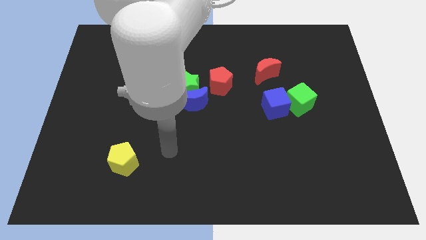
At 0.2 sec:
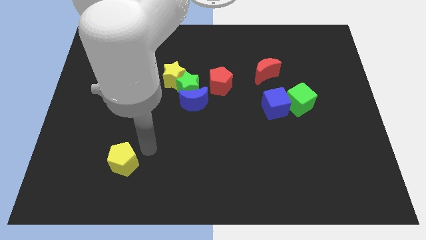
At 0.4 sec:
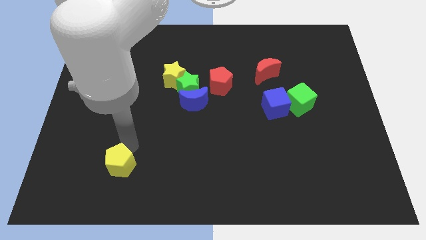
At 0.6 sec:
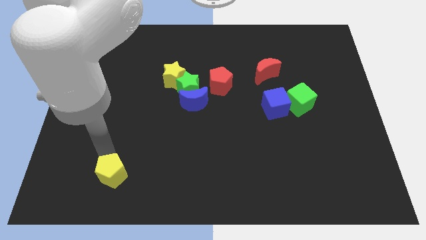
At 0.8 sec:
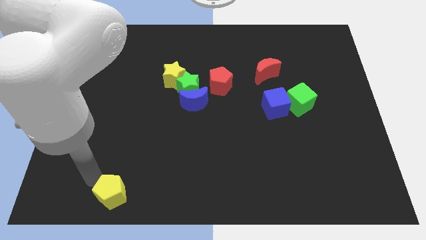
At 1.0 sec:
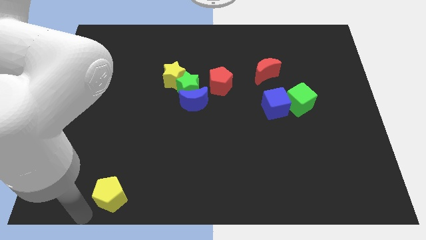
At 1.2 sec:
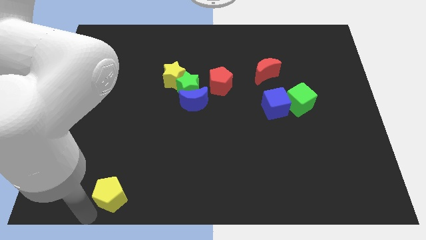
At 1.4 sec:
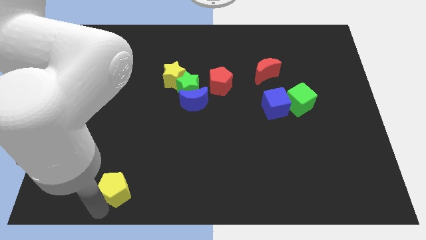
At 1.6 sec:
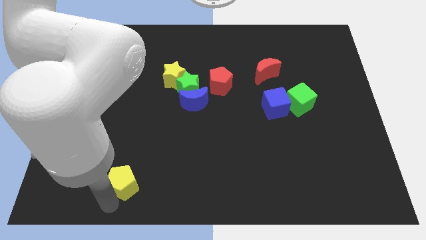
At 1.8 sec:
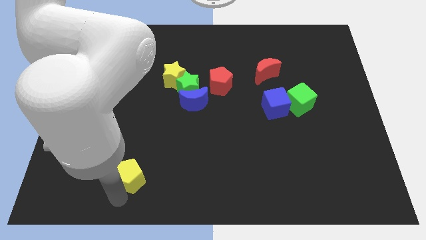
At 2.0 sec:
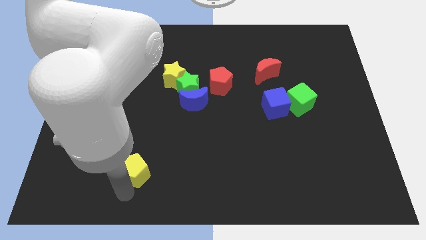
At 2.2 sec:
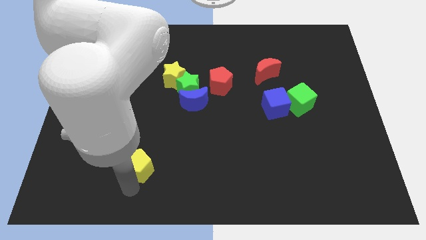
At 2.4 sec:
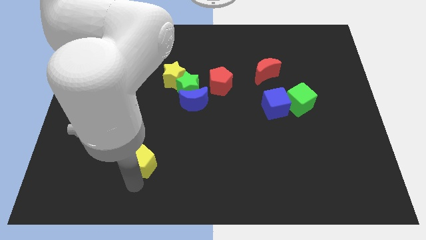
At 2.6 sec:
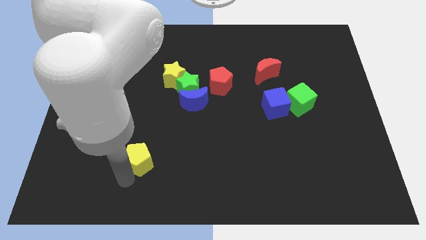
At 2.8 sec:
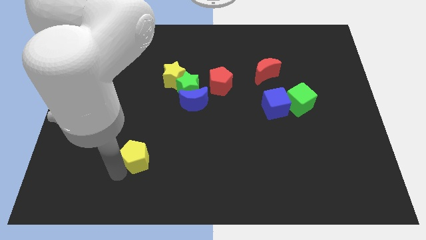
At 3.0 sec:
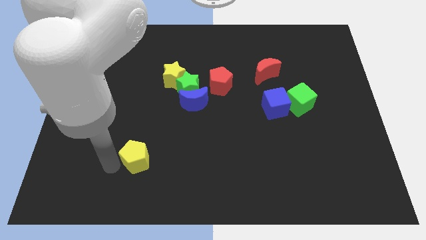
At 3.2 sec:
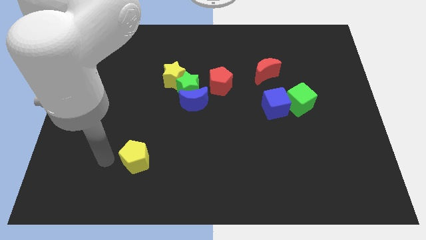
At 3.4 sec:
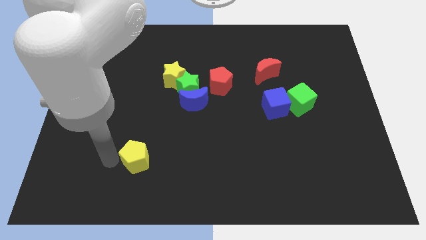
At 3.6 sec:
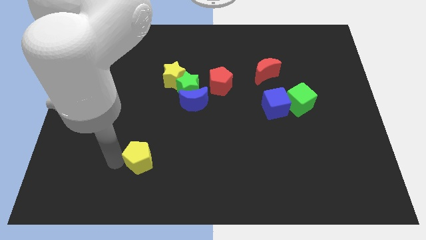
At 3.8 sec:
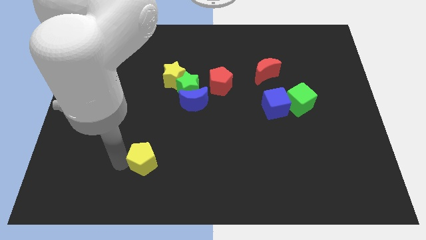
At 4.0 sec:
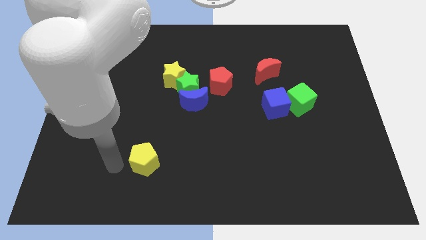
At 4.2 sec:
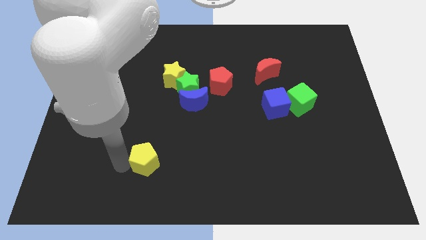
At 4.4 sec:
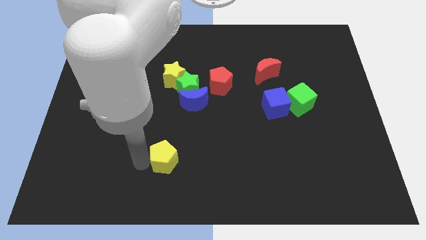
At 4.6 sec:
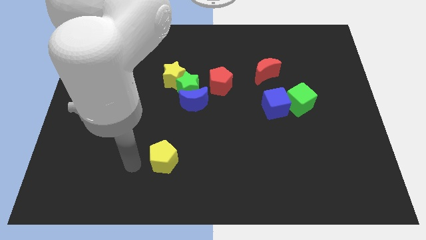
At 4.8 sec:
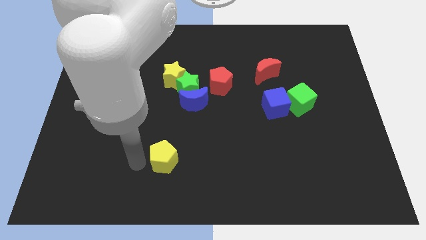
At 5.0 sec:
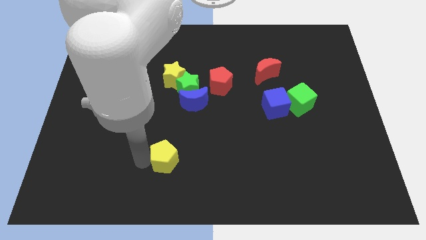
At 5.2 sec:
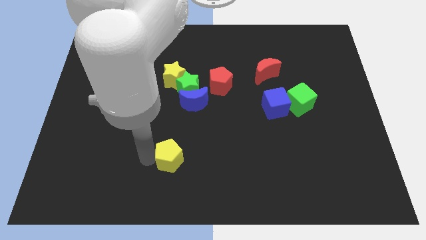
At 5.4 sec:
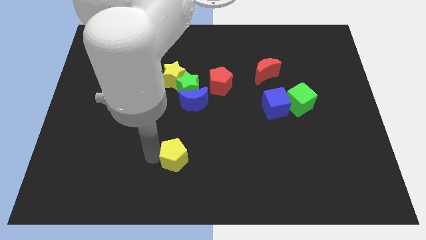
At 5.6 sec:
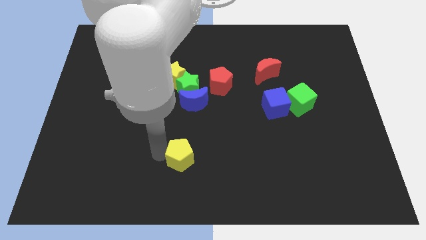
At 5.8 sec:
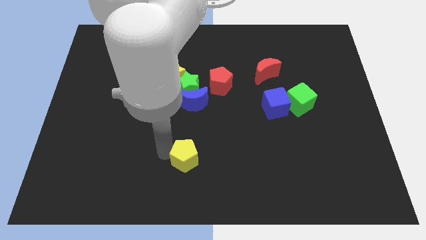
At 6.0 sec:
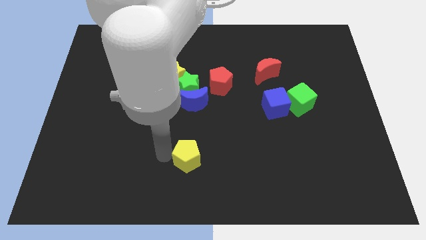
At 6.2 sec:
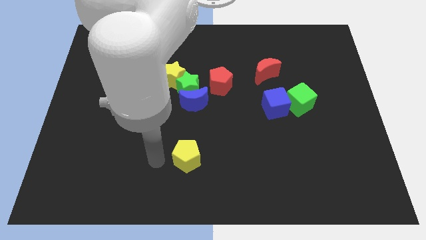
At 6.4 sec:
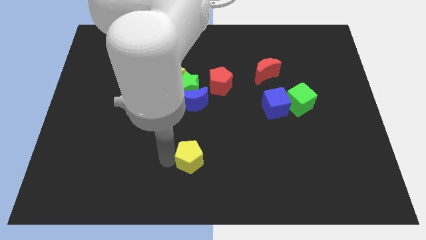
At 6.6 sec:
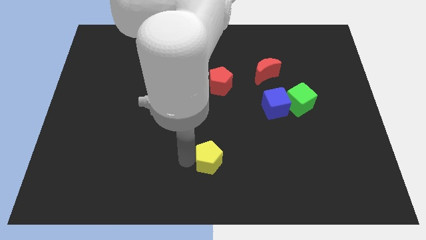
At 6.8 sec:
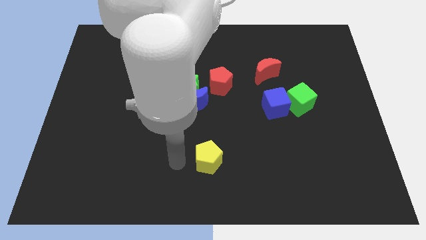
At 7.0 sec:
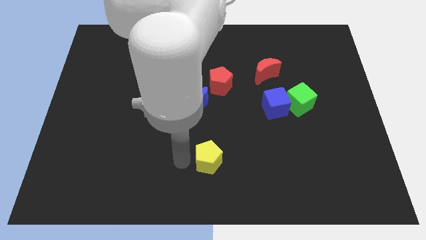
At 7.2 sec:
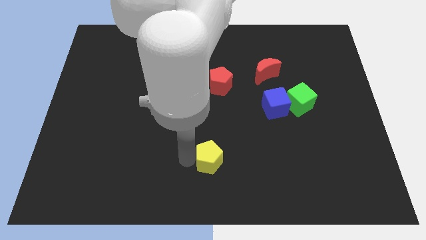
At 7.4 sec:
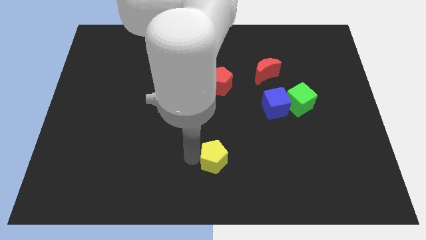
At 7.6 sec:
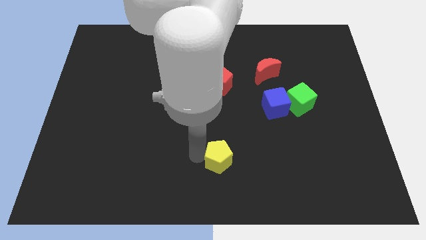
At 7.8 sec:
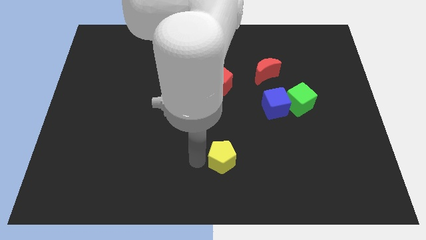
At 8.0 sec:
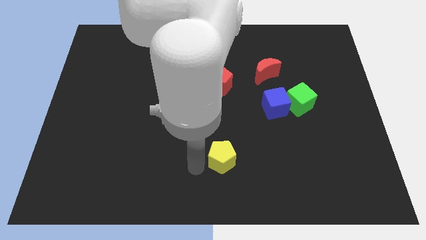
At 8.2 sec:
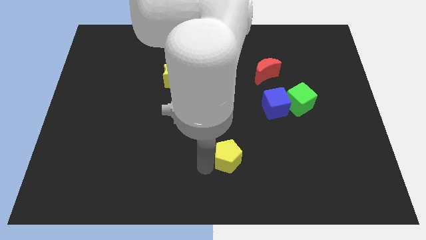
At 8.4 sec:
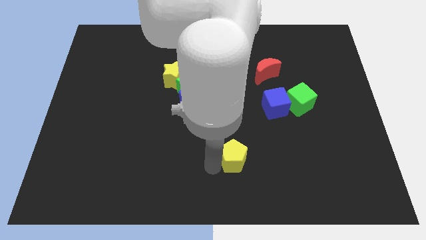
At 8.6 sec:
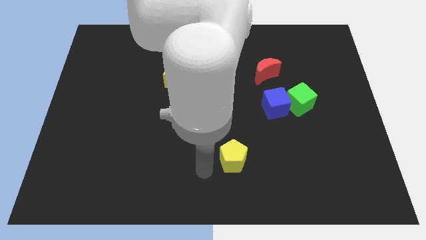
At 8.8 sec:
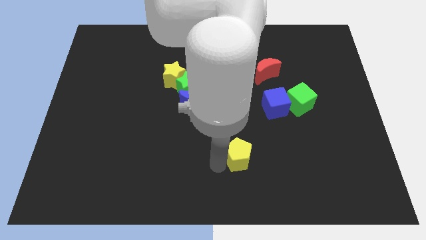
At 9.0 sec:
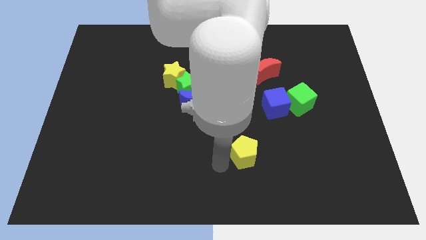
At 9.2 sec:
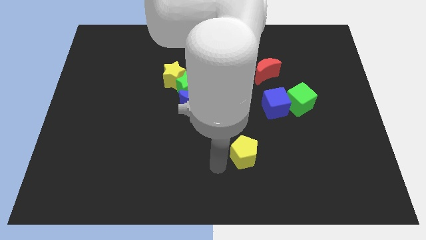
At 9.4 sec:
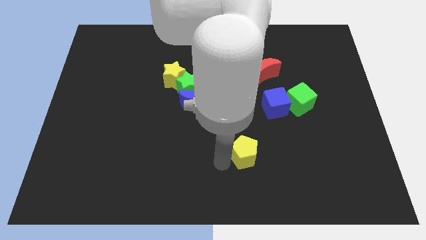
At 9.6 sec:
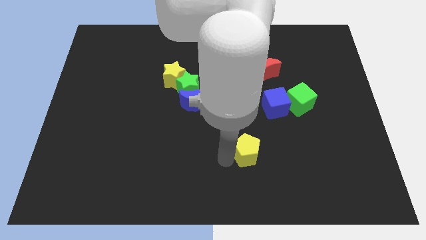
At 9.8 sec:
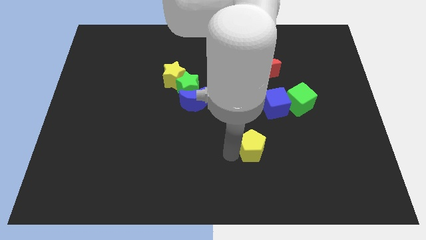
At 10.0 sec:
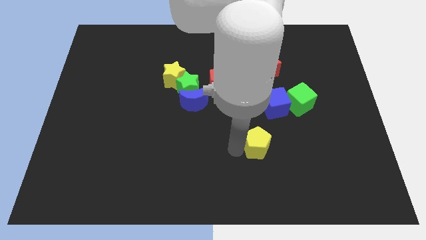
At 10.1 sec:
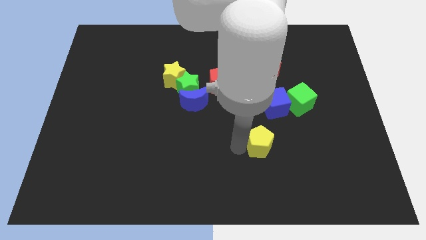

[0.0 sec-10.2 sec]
slide the yellow pentagon below the blue cube

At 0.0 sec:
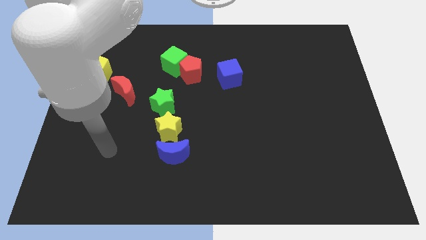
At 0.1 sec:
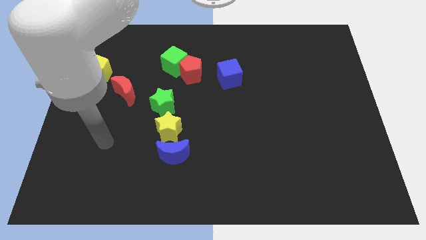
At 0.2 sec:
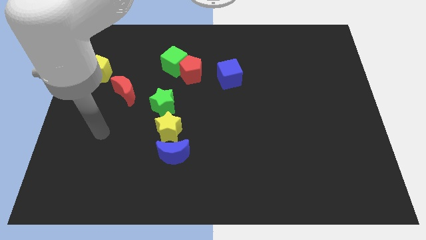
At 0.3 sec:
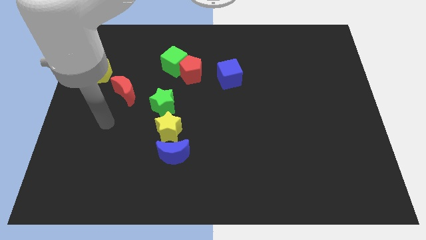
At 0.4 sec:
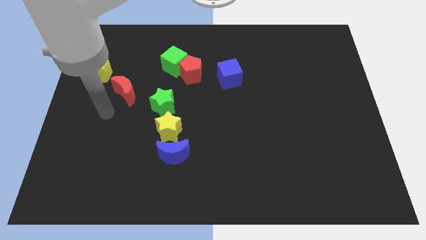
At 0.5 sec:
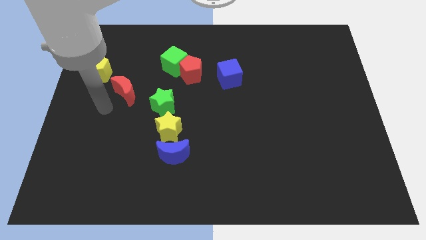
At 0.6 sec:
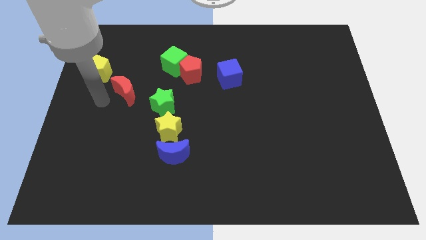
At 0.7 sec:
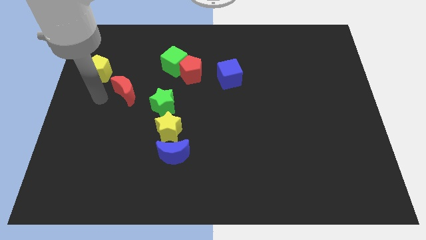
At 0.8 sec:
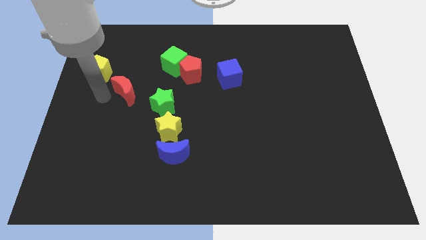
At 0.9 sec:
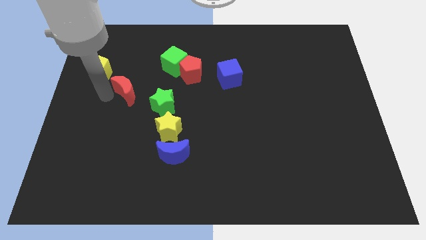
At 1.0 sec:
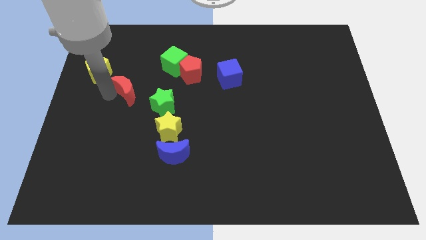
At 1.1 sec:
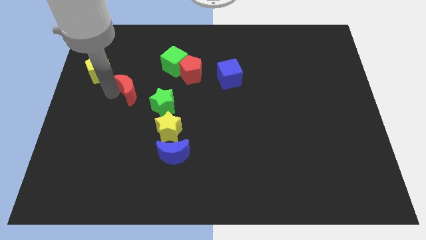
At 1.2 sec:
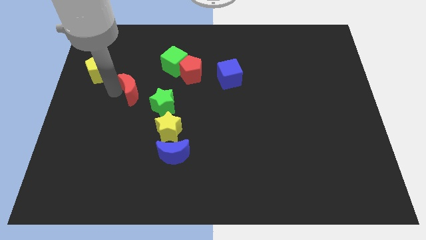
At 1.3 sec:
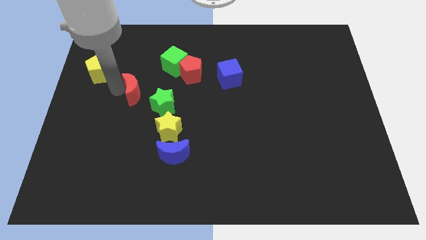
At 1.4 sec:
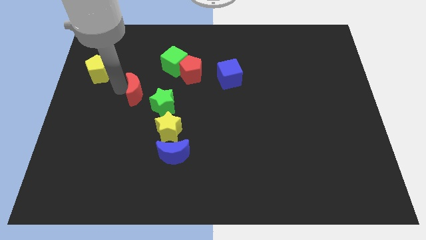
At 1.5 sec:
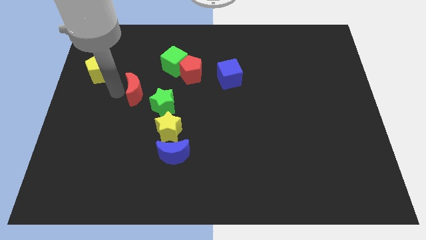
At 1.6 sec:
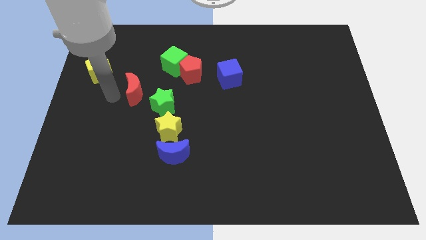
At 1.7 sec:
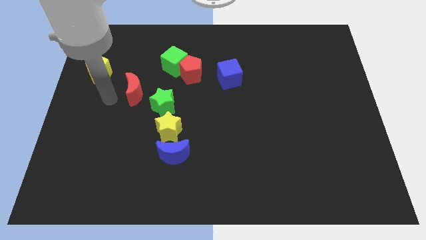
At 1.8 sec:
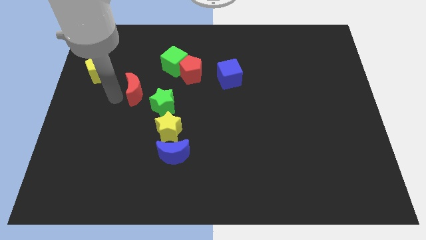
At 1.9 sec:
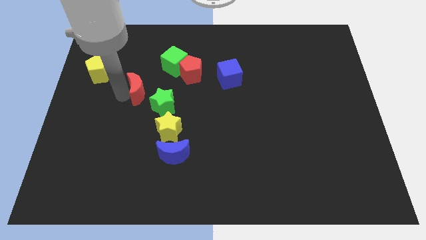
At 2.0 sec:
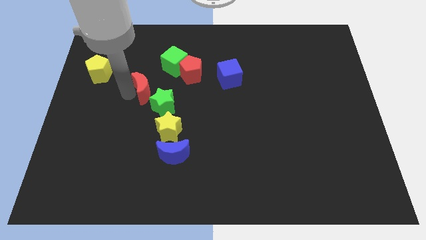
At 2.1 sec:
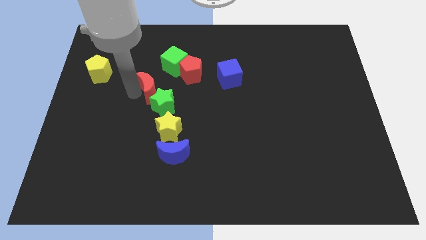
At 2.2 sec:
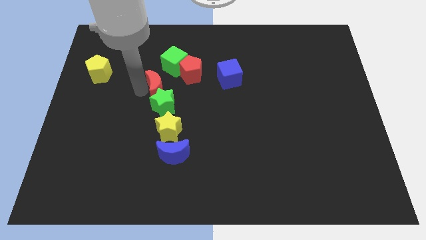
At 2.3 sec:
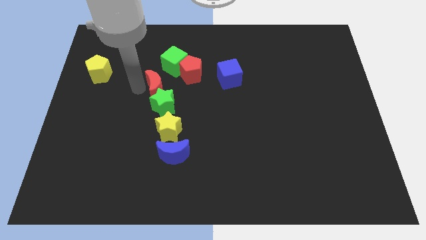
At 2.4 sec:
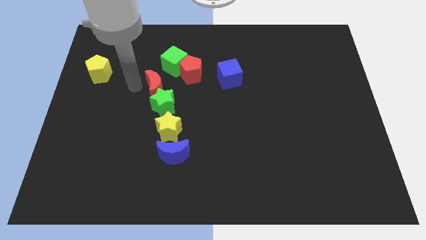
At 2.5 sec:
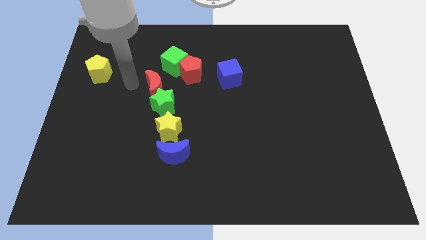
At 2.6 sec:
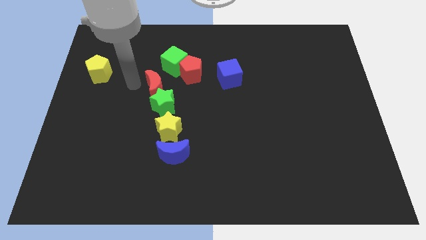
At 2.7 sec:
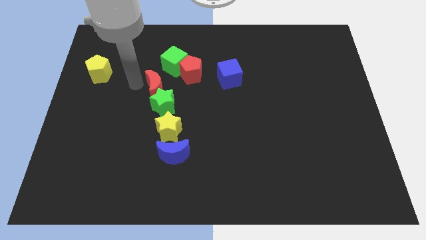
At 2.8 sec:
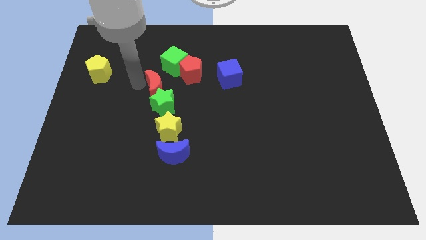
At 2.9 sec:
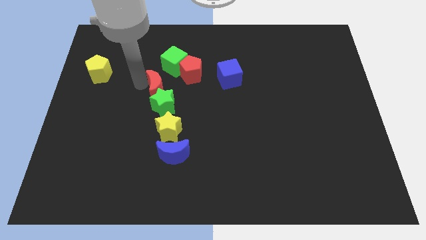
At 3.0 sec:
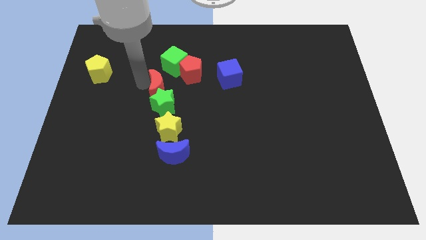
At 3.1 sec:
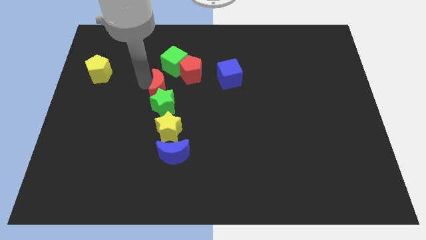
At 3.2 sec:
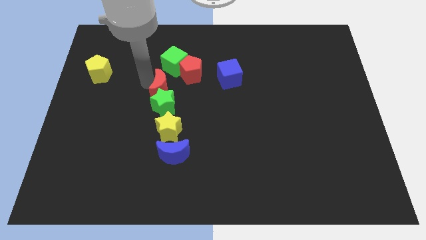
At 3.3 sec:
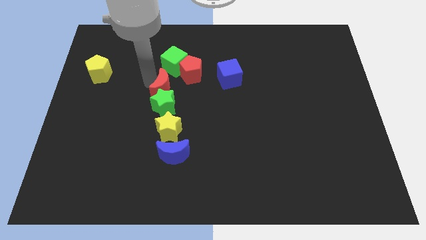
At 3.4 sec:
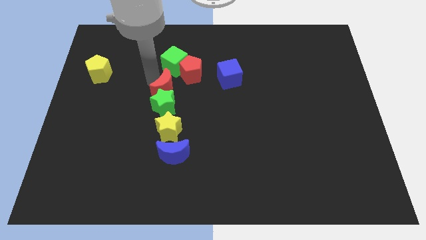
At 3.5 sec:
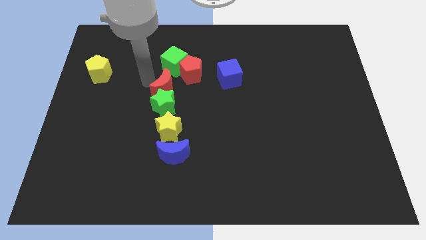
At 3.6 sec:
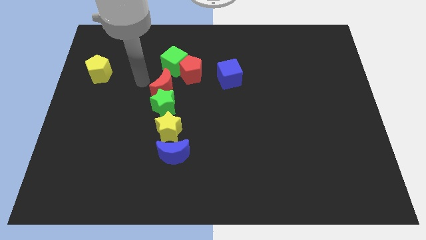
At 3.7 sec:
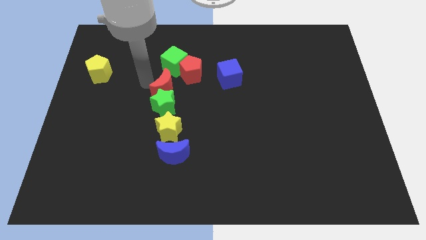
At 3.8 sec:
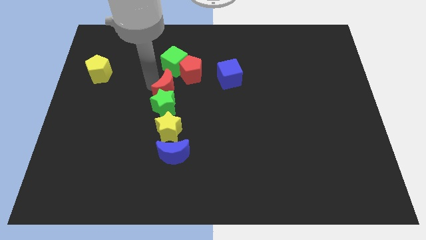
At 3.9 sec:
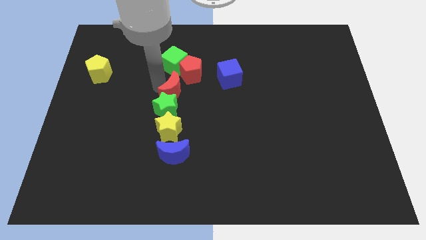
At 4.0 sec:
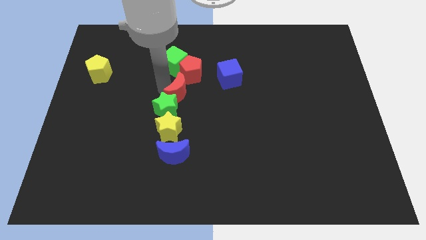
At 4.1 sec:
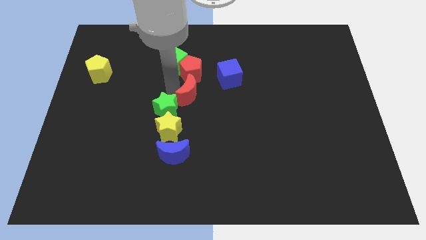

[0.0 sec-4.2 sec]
move the red moon just right of the green star
